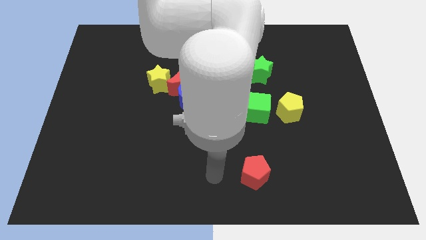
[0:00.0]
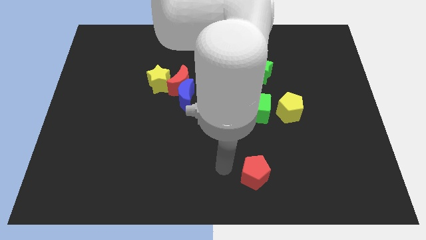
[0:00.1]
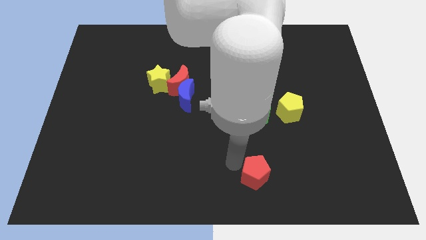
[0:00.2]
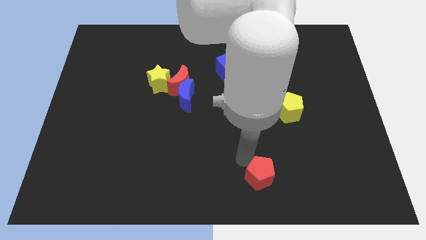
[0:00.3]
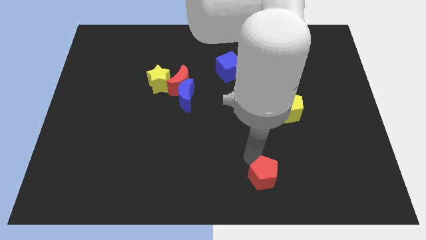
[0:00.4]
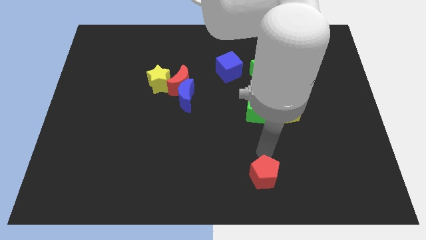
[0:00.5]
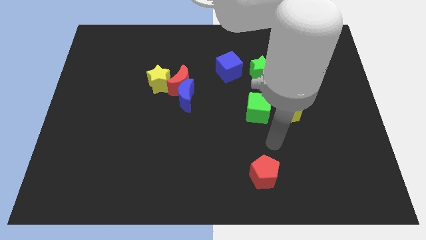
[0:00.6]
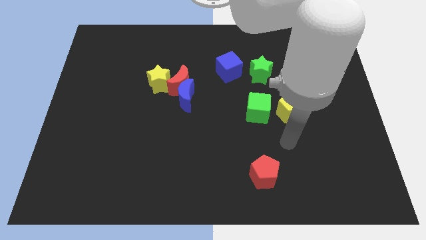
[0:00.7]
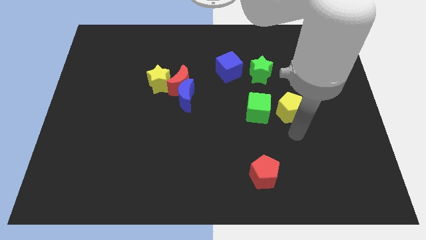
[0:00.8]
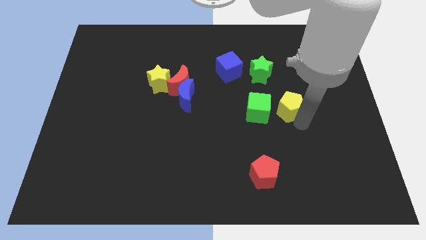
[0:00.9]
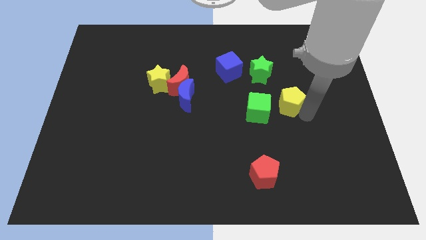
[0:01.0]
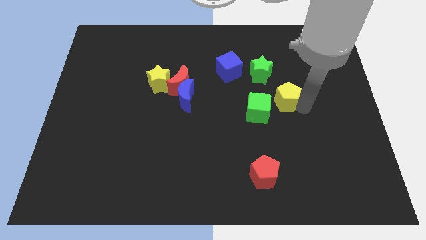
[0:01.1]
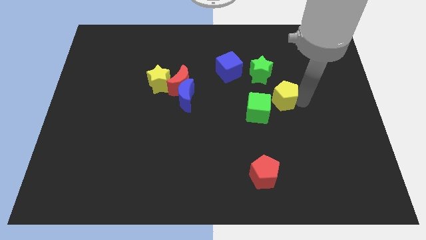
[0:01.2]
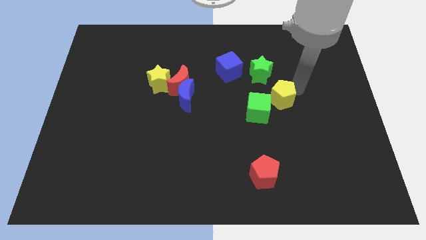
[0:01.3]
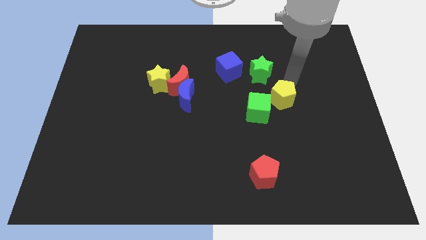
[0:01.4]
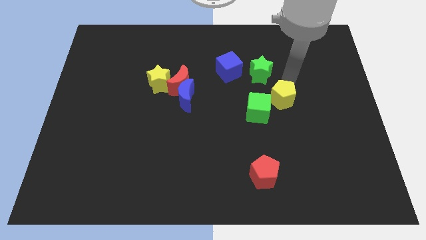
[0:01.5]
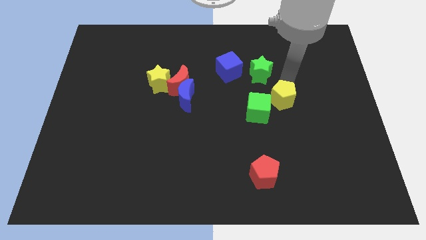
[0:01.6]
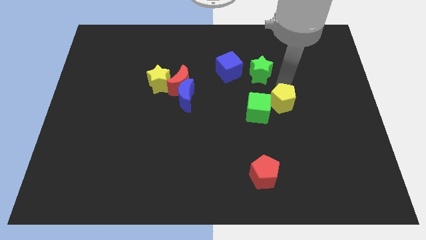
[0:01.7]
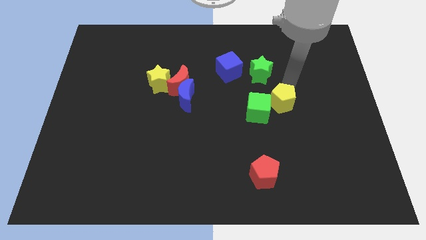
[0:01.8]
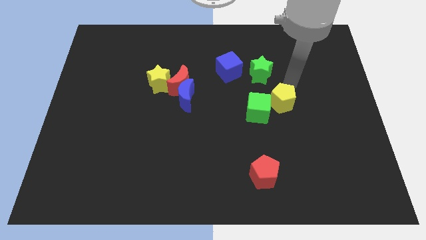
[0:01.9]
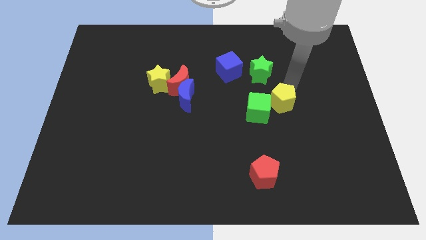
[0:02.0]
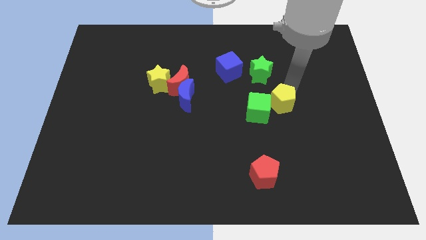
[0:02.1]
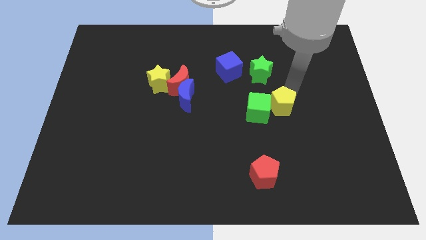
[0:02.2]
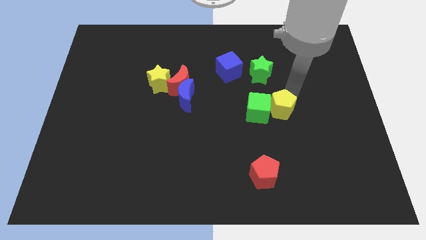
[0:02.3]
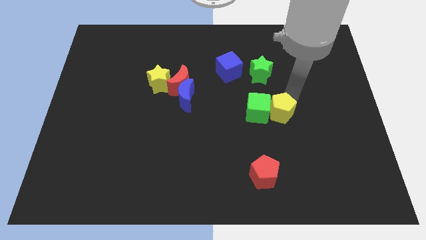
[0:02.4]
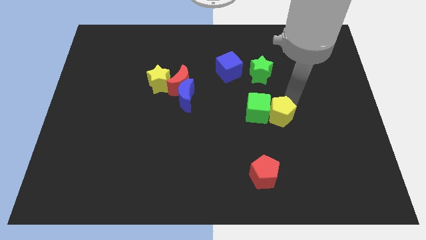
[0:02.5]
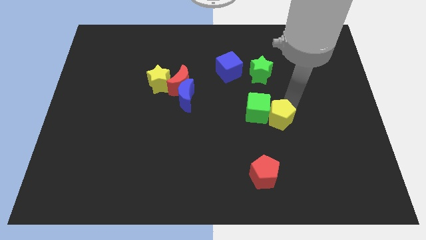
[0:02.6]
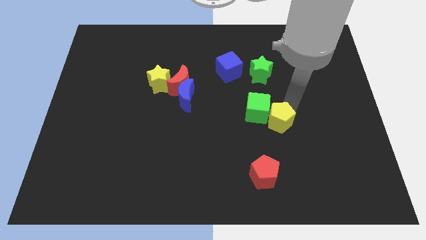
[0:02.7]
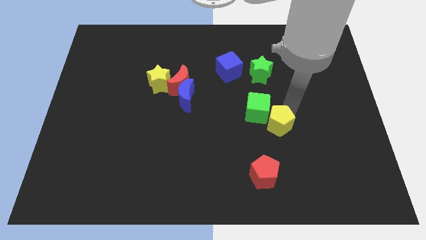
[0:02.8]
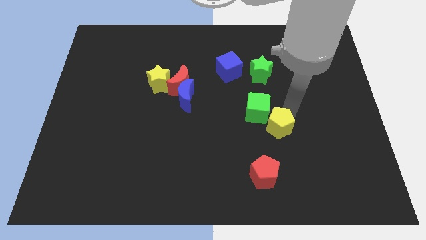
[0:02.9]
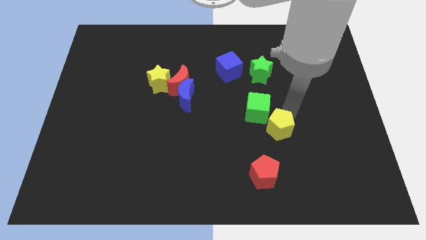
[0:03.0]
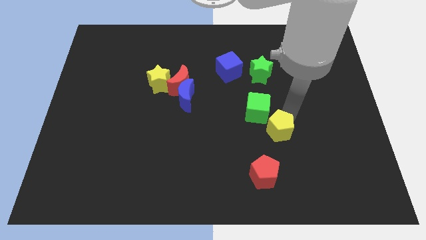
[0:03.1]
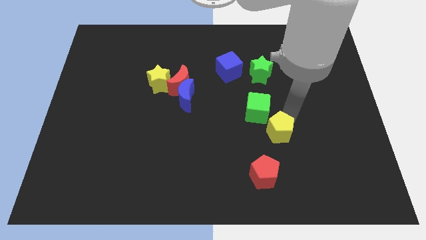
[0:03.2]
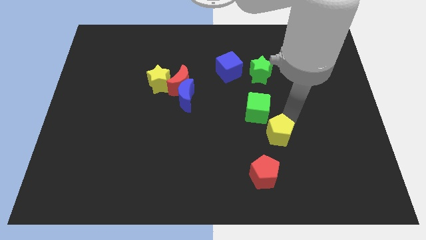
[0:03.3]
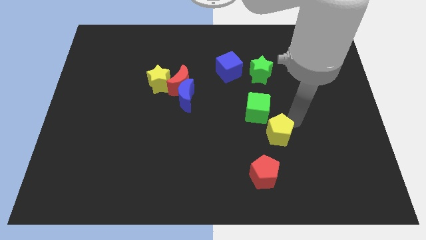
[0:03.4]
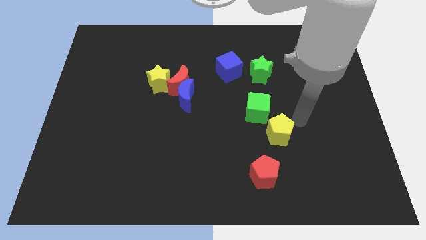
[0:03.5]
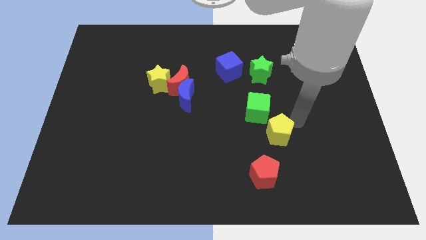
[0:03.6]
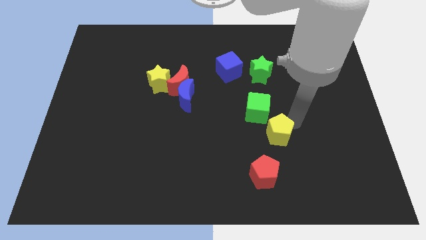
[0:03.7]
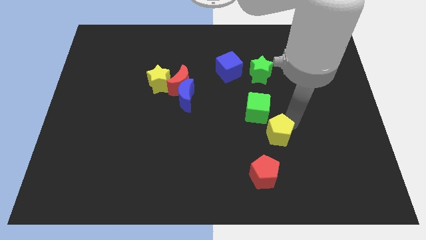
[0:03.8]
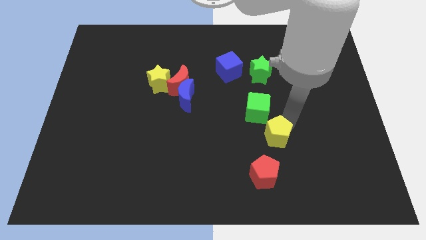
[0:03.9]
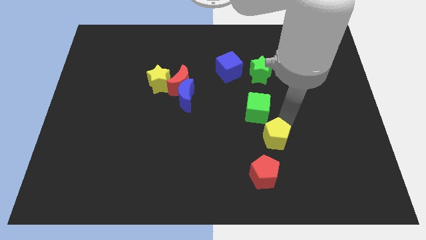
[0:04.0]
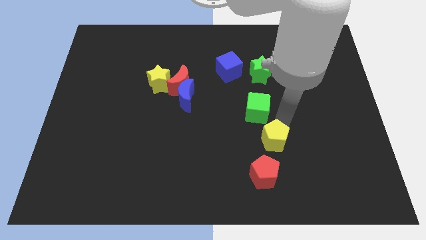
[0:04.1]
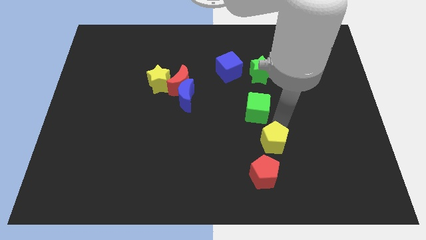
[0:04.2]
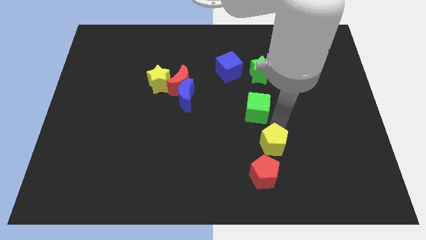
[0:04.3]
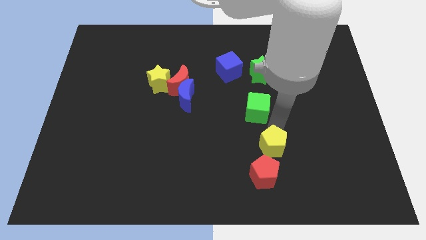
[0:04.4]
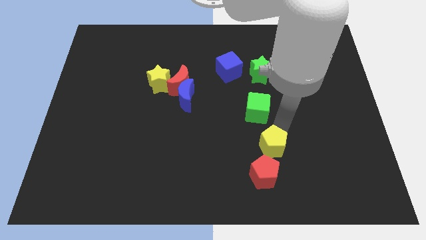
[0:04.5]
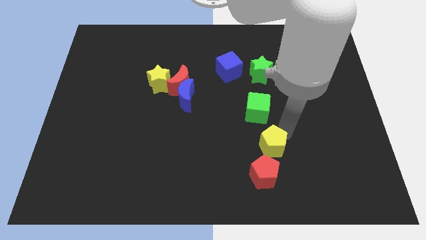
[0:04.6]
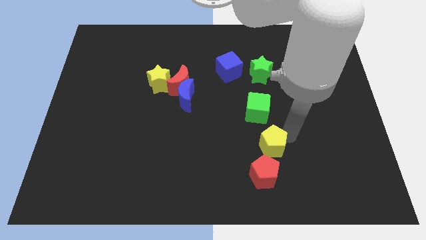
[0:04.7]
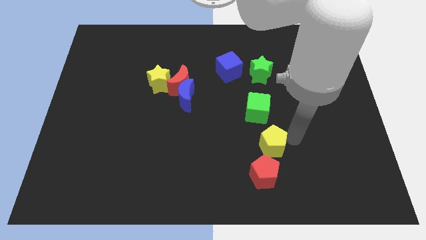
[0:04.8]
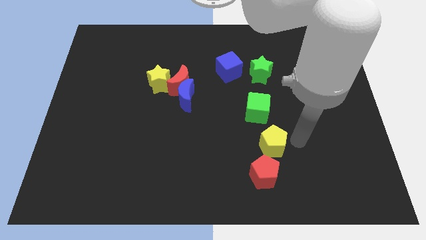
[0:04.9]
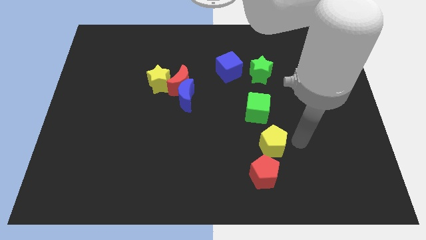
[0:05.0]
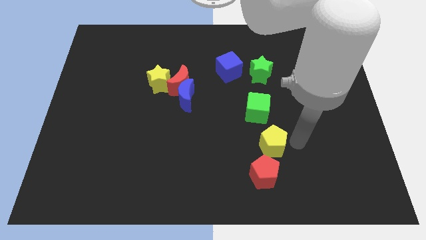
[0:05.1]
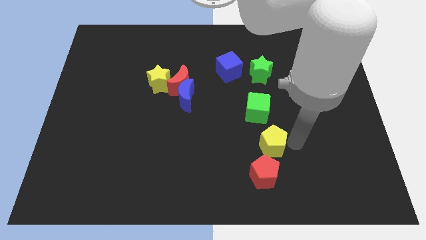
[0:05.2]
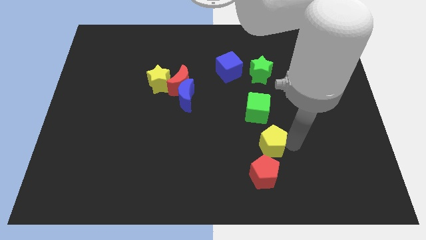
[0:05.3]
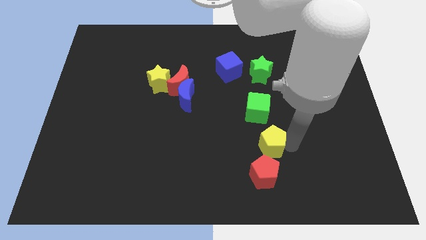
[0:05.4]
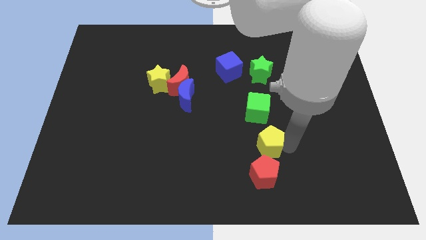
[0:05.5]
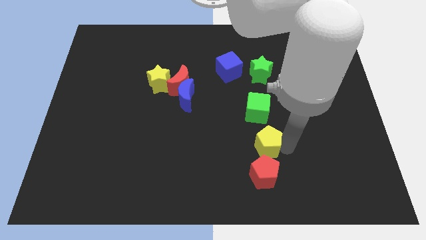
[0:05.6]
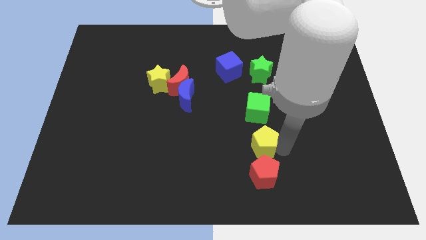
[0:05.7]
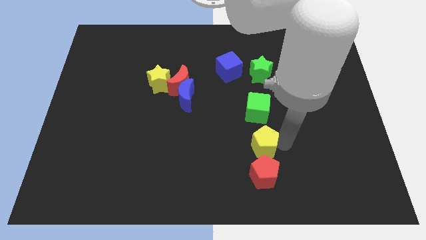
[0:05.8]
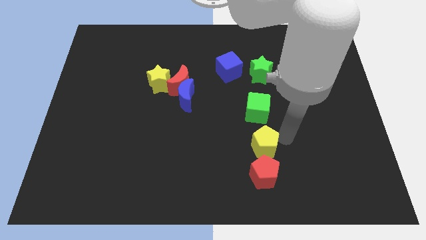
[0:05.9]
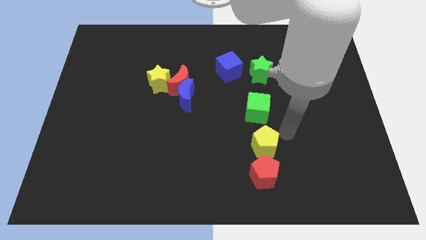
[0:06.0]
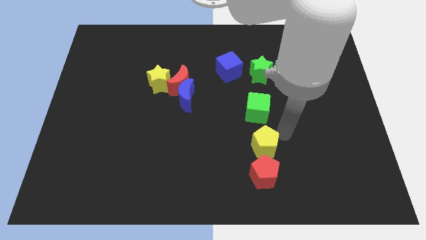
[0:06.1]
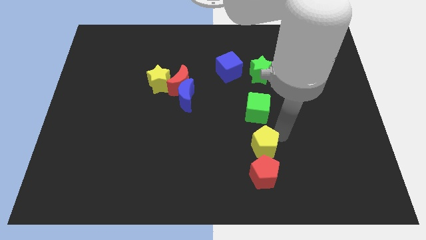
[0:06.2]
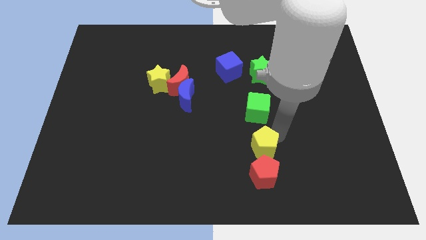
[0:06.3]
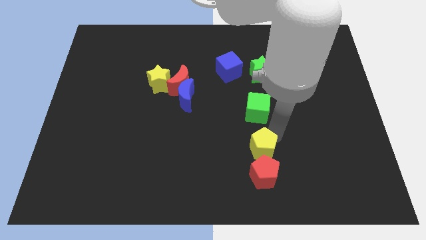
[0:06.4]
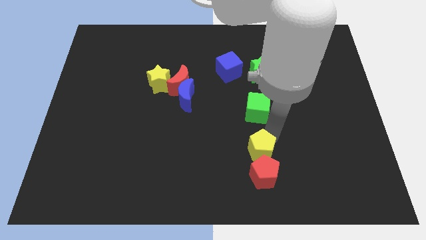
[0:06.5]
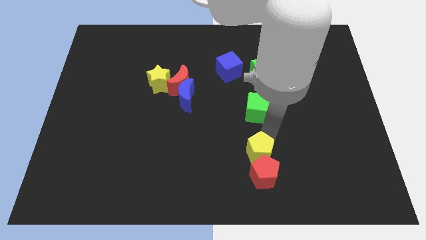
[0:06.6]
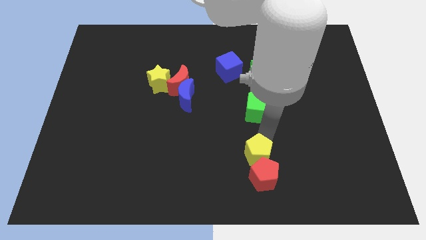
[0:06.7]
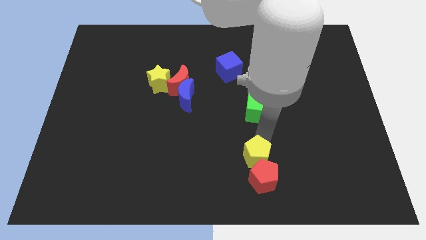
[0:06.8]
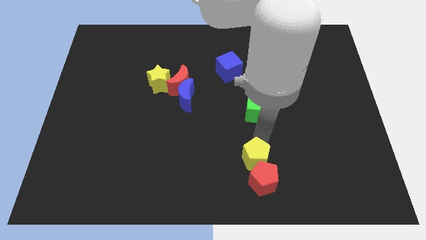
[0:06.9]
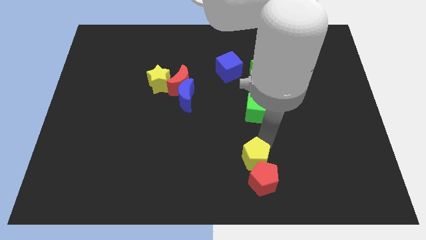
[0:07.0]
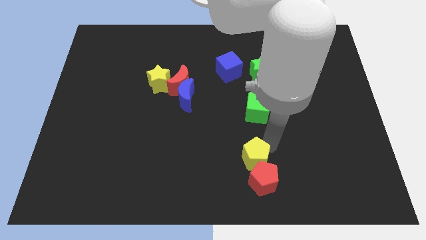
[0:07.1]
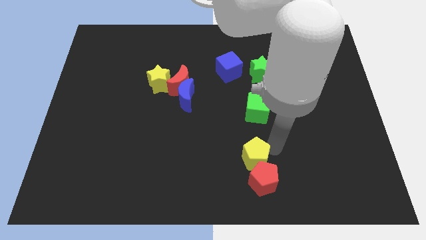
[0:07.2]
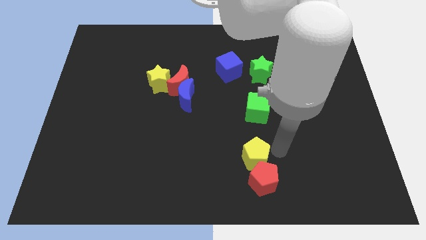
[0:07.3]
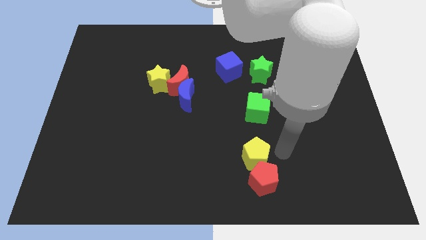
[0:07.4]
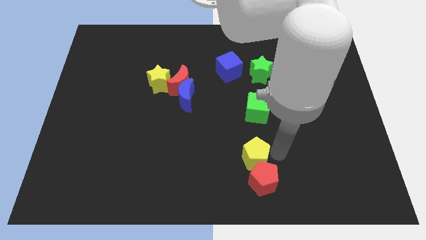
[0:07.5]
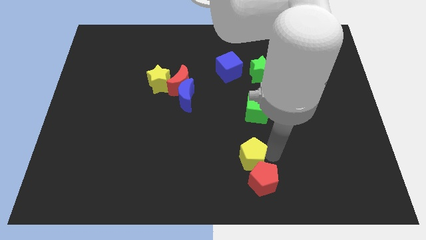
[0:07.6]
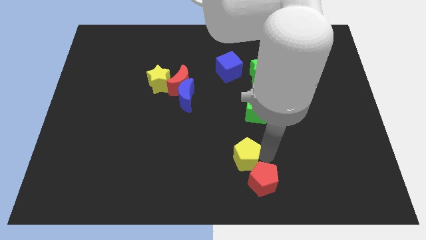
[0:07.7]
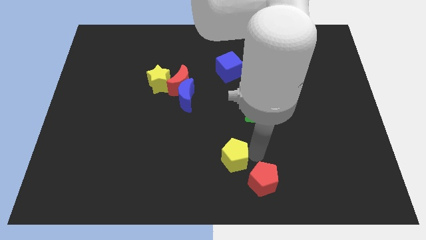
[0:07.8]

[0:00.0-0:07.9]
move the yellow pentagon to the bottom
